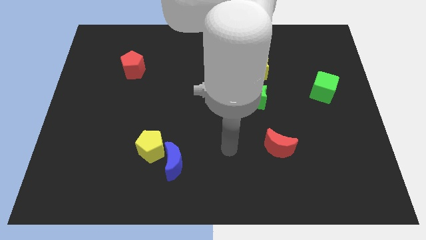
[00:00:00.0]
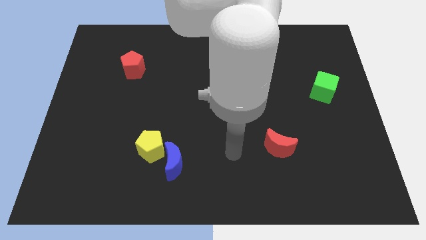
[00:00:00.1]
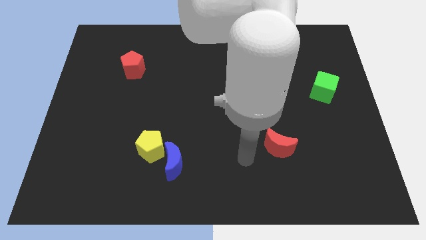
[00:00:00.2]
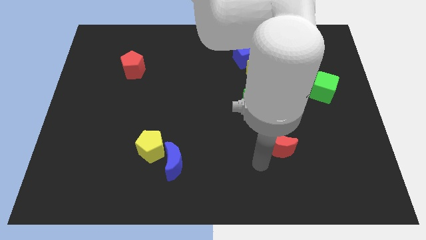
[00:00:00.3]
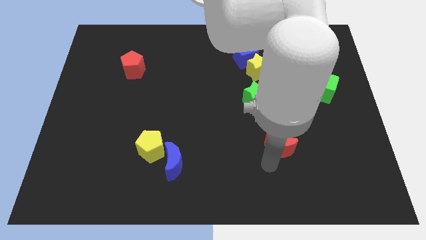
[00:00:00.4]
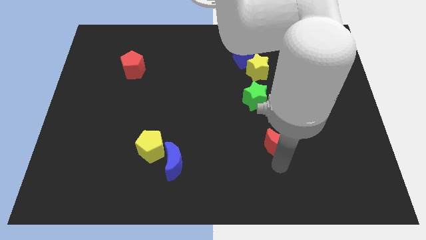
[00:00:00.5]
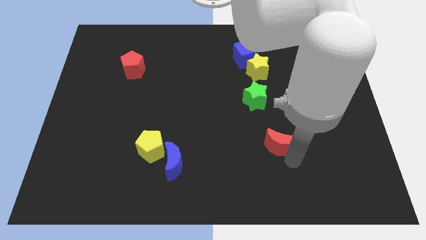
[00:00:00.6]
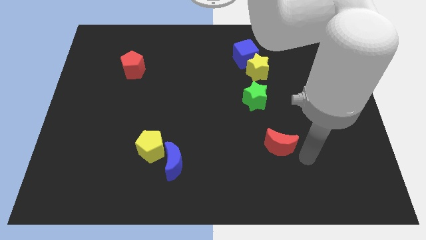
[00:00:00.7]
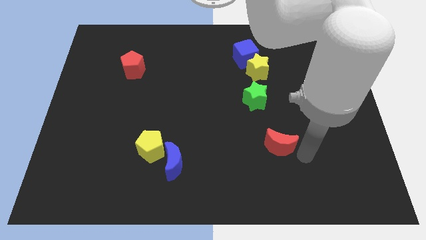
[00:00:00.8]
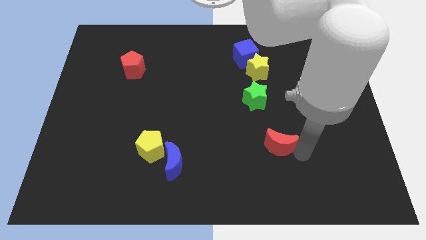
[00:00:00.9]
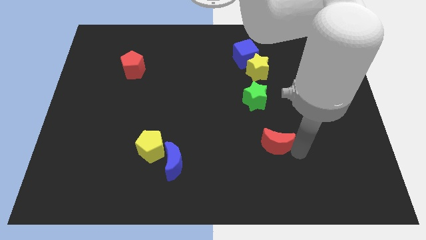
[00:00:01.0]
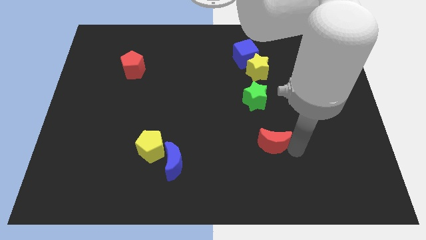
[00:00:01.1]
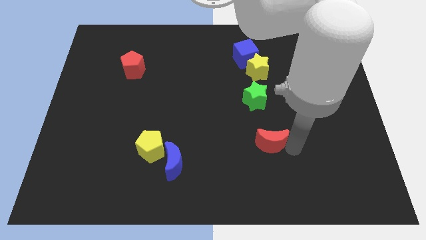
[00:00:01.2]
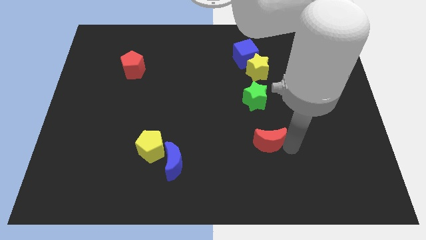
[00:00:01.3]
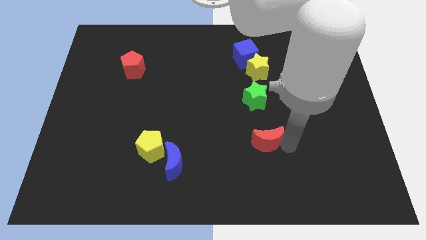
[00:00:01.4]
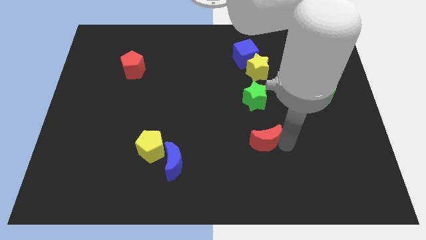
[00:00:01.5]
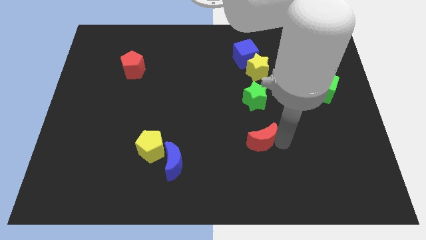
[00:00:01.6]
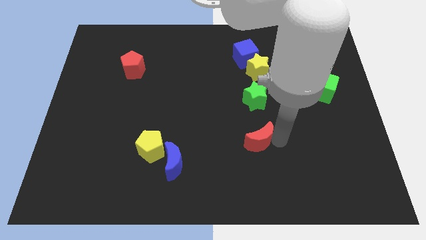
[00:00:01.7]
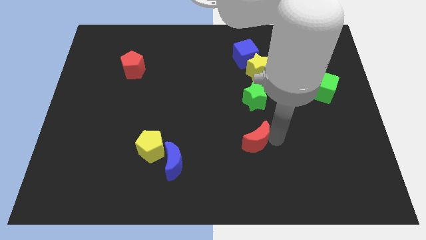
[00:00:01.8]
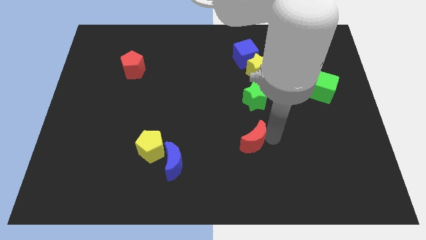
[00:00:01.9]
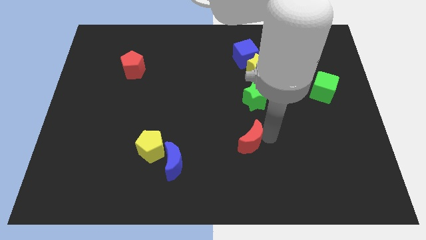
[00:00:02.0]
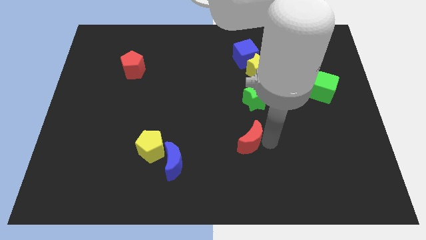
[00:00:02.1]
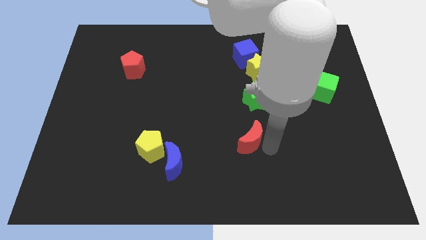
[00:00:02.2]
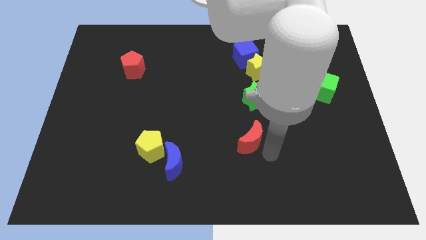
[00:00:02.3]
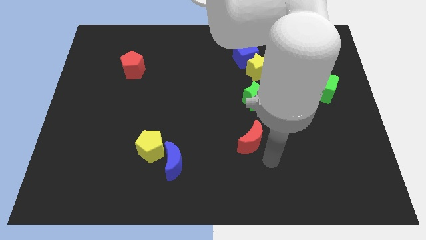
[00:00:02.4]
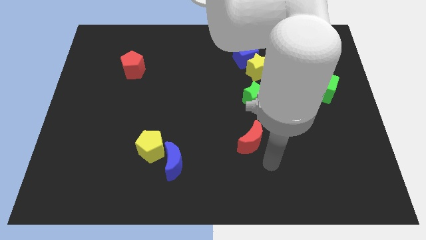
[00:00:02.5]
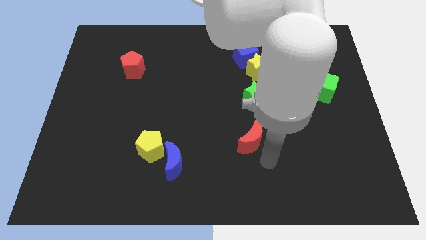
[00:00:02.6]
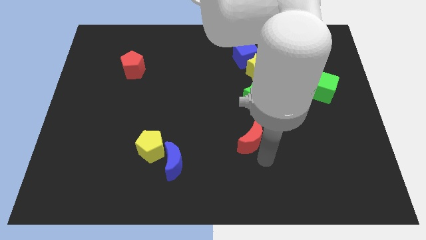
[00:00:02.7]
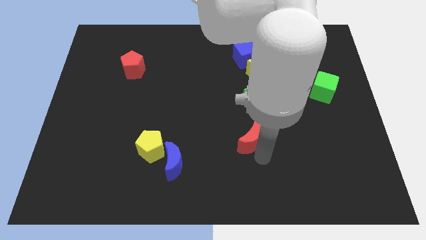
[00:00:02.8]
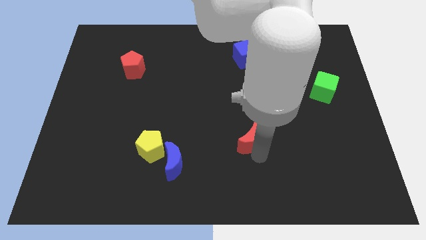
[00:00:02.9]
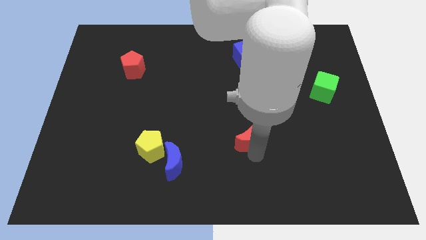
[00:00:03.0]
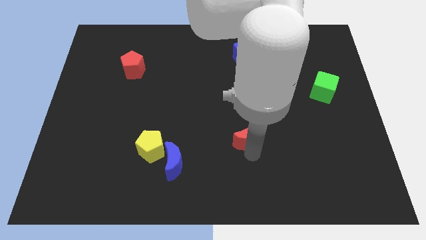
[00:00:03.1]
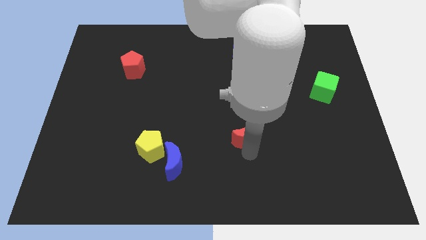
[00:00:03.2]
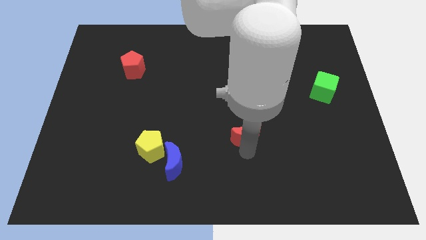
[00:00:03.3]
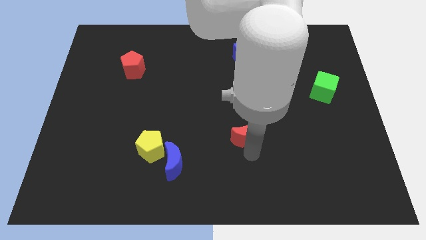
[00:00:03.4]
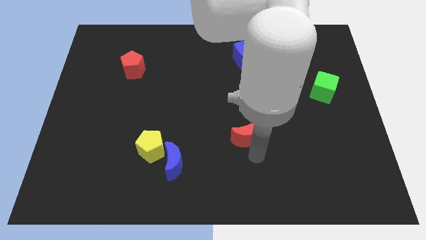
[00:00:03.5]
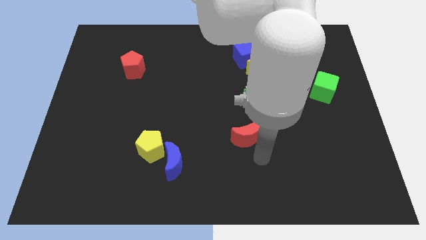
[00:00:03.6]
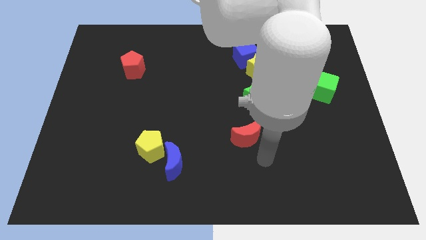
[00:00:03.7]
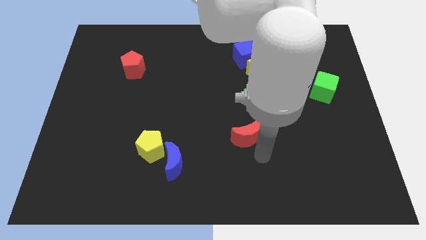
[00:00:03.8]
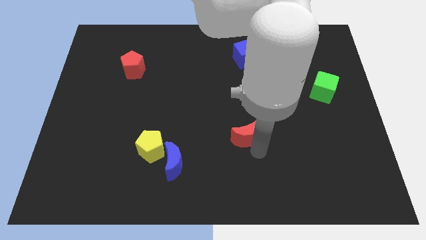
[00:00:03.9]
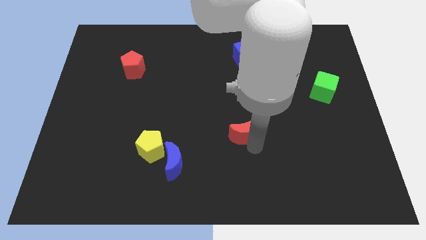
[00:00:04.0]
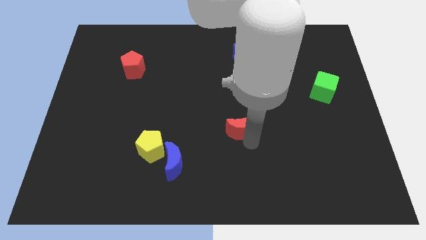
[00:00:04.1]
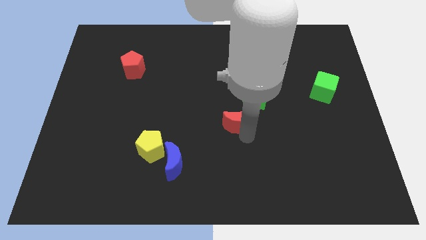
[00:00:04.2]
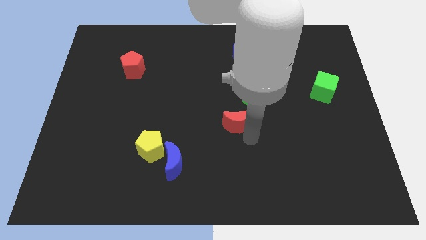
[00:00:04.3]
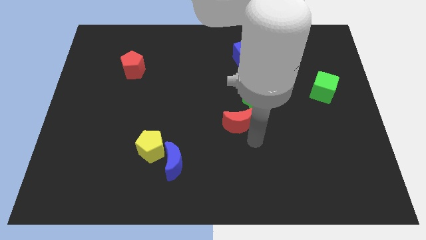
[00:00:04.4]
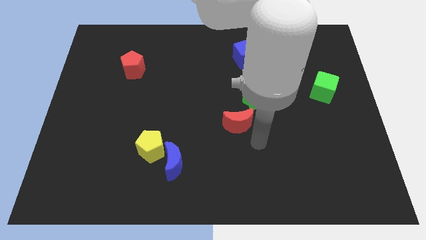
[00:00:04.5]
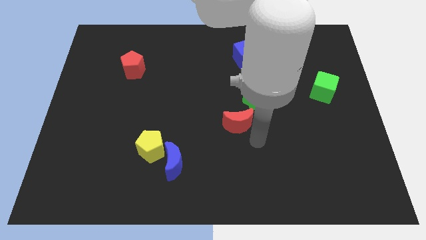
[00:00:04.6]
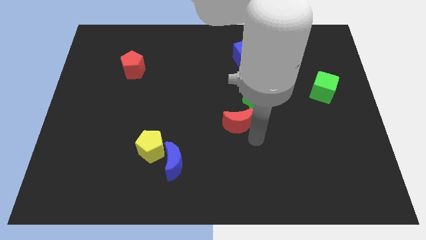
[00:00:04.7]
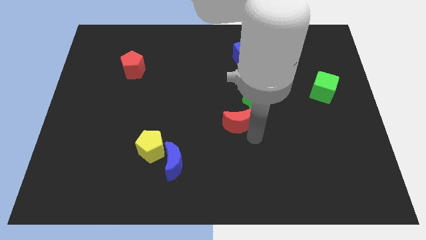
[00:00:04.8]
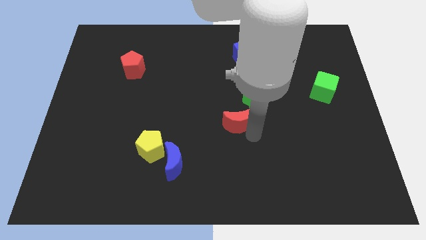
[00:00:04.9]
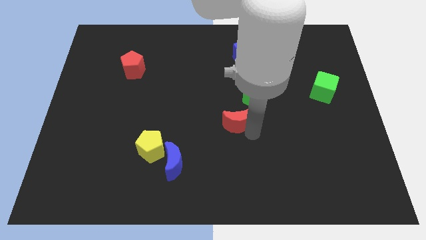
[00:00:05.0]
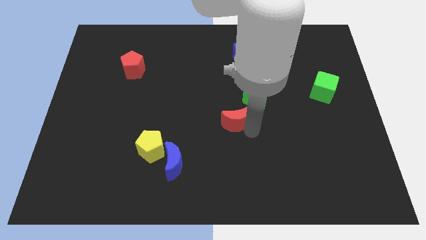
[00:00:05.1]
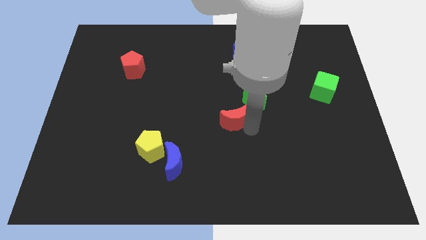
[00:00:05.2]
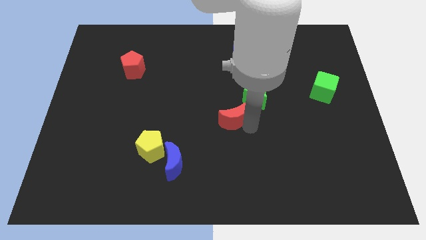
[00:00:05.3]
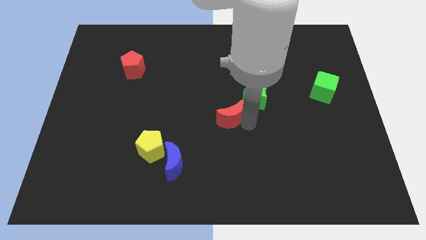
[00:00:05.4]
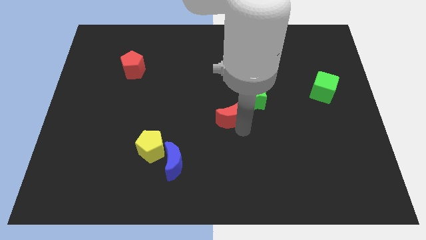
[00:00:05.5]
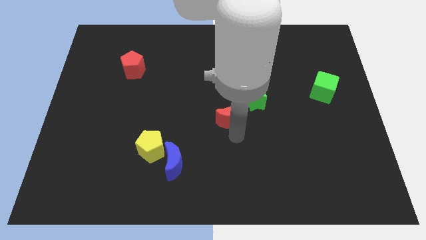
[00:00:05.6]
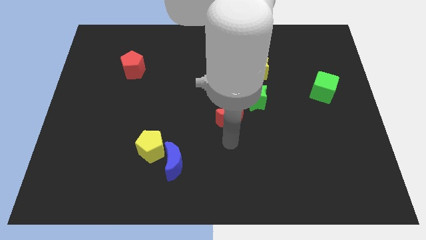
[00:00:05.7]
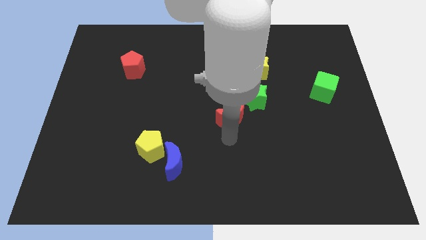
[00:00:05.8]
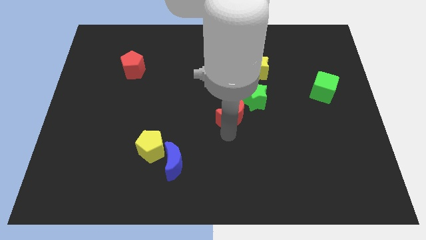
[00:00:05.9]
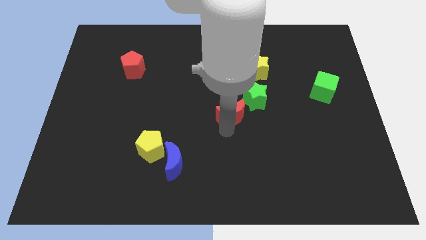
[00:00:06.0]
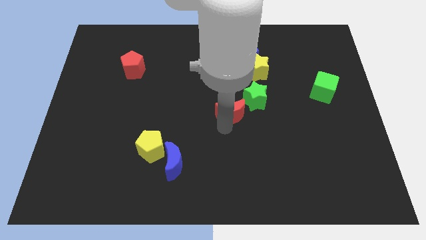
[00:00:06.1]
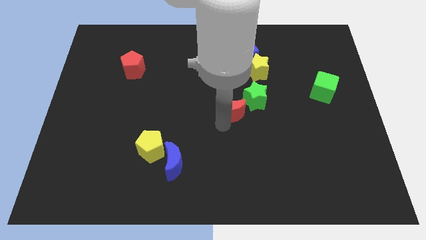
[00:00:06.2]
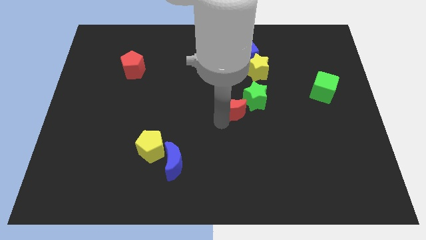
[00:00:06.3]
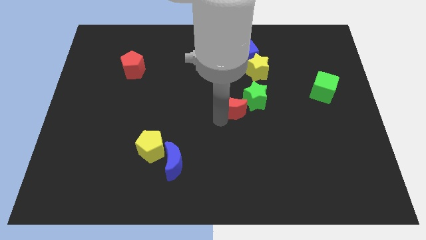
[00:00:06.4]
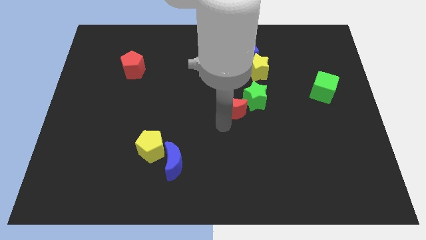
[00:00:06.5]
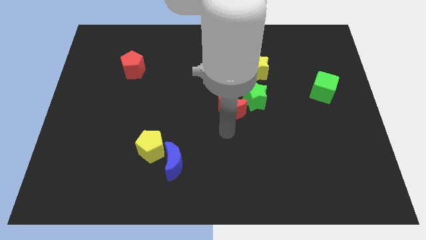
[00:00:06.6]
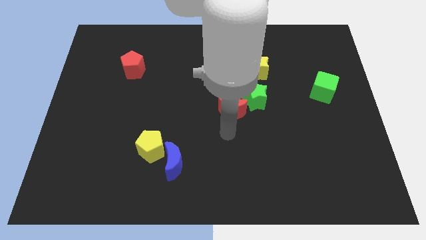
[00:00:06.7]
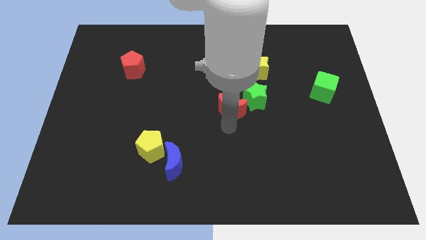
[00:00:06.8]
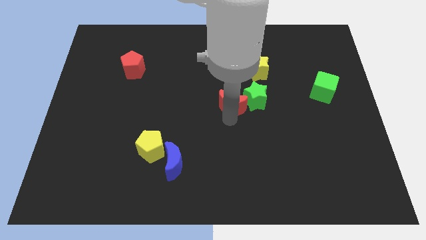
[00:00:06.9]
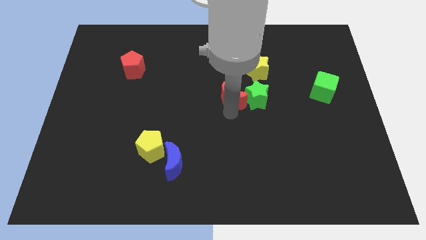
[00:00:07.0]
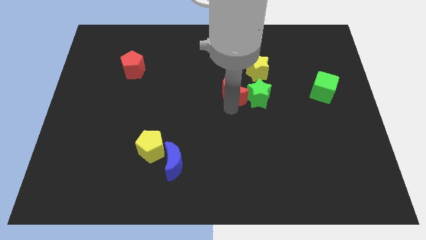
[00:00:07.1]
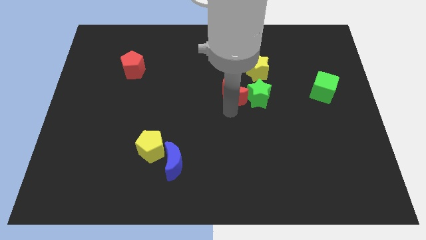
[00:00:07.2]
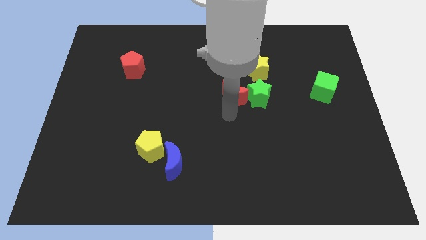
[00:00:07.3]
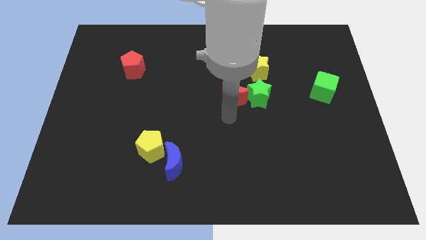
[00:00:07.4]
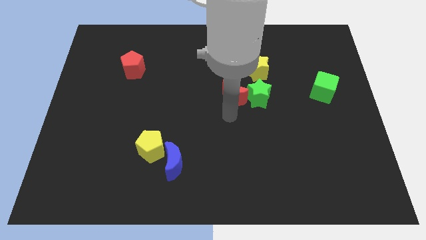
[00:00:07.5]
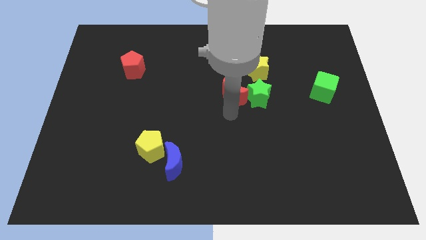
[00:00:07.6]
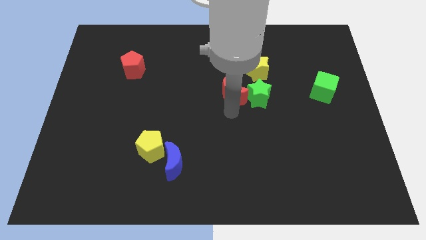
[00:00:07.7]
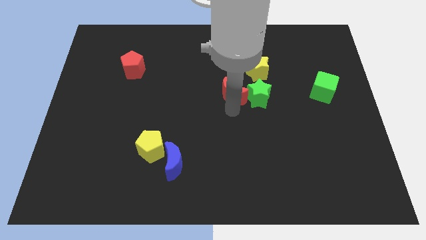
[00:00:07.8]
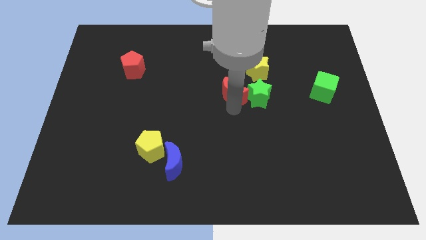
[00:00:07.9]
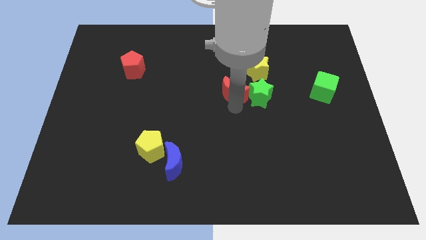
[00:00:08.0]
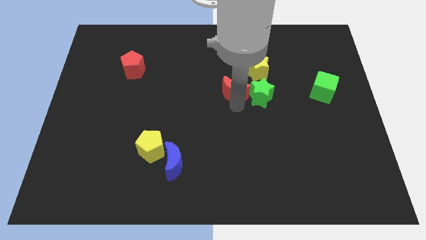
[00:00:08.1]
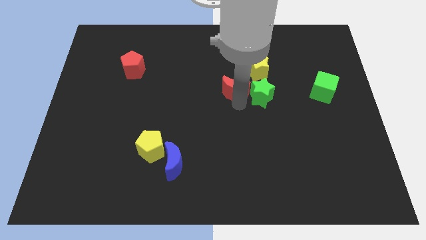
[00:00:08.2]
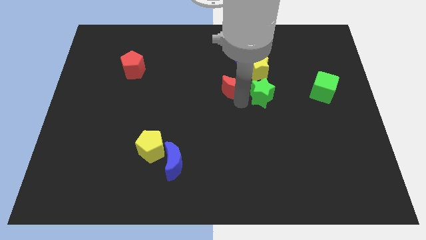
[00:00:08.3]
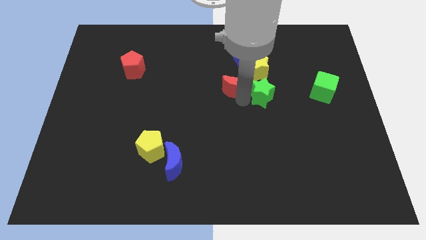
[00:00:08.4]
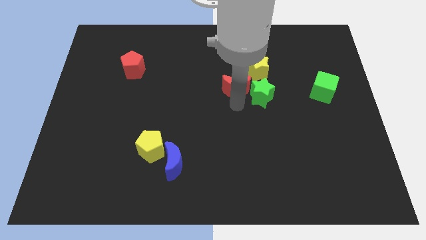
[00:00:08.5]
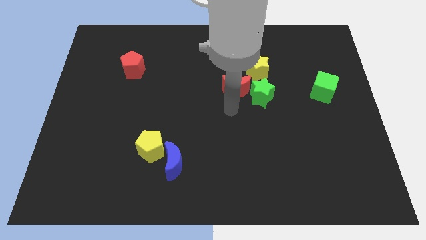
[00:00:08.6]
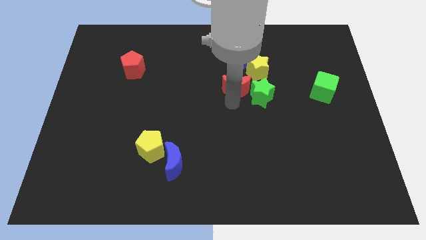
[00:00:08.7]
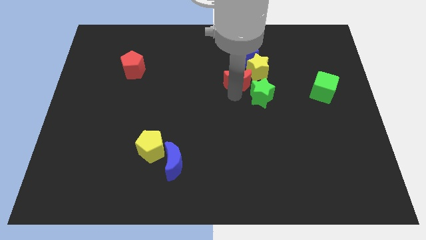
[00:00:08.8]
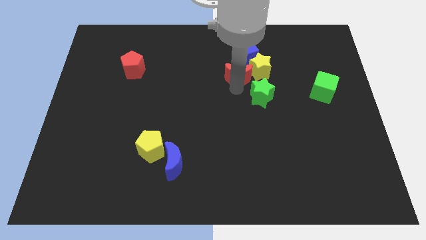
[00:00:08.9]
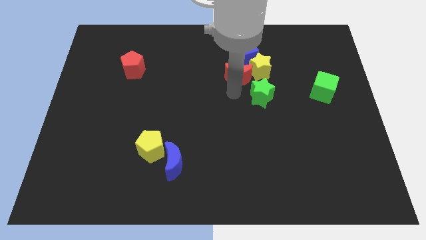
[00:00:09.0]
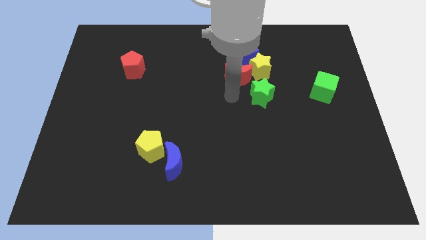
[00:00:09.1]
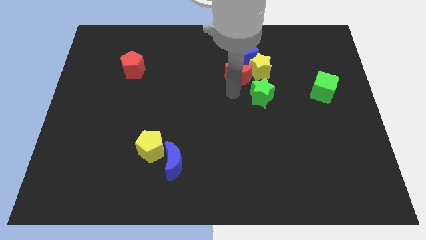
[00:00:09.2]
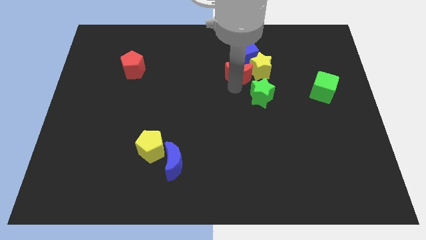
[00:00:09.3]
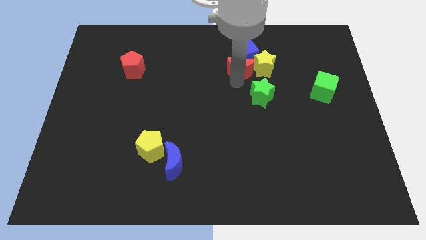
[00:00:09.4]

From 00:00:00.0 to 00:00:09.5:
move the red moon close to the blue cube
